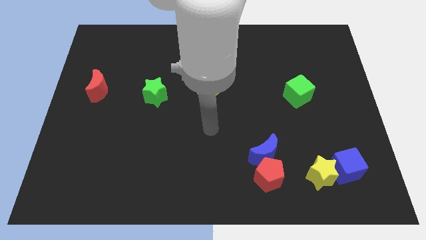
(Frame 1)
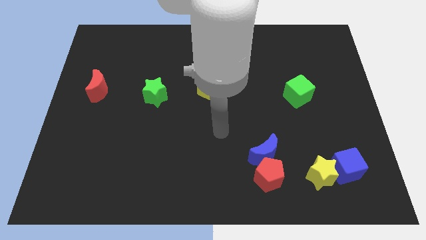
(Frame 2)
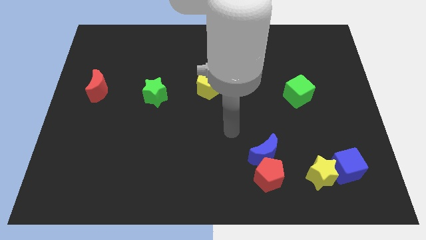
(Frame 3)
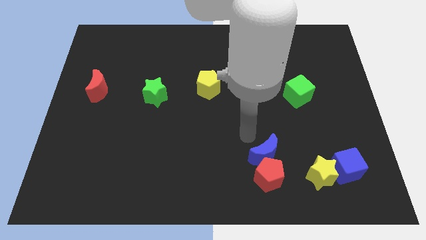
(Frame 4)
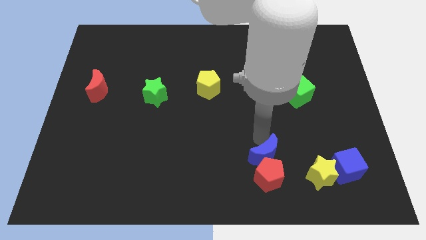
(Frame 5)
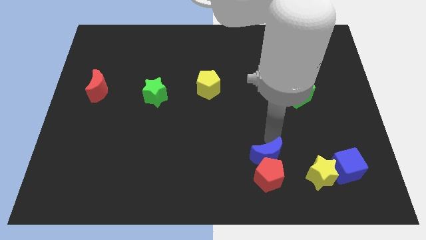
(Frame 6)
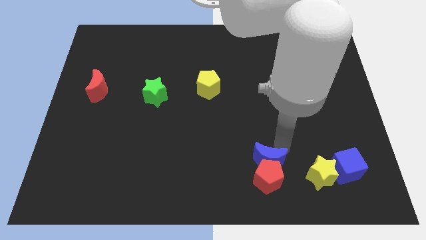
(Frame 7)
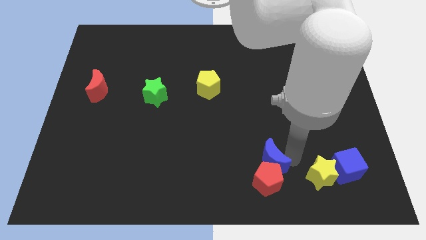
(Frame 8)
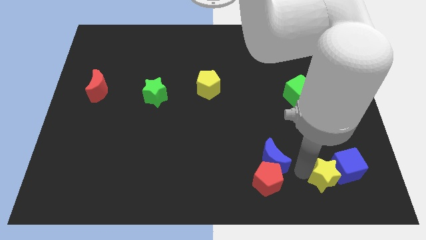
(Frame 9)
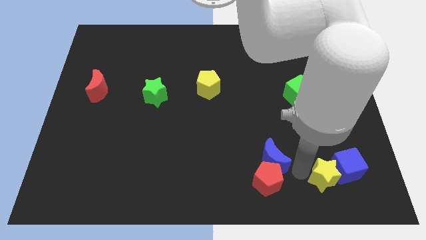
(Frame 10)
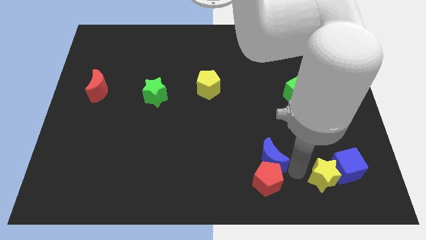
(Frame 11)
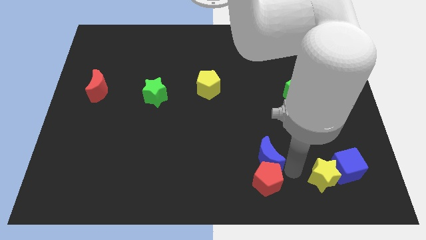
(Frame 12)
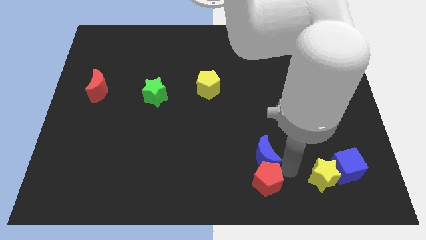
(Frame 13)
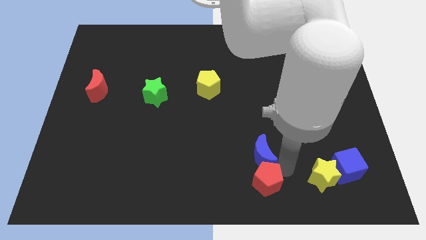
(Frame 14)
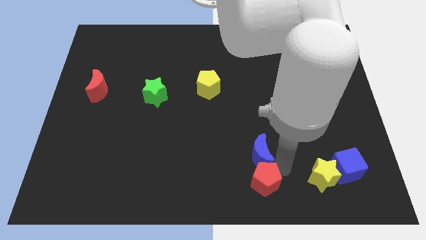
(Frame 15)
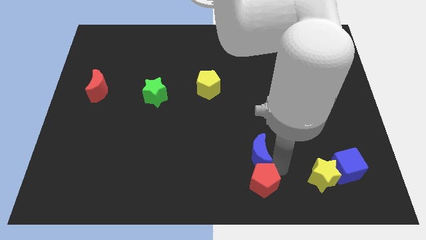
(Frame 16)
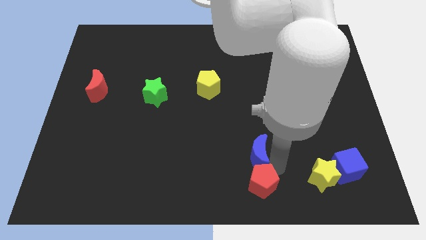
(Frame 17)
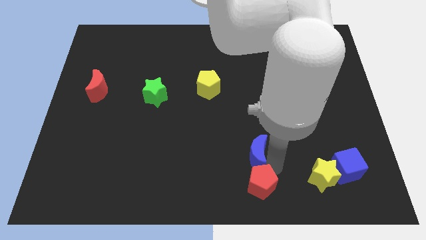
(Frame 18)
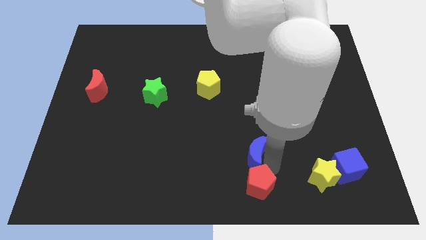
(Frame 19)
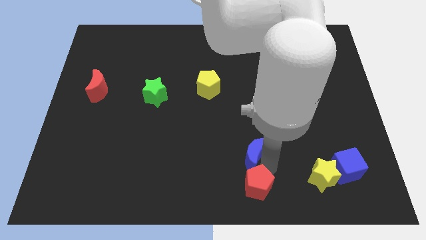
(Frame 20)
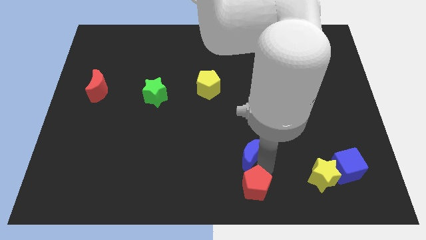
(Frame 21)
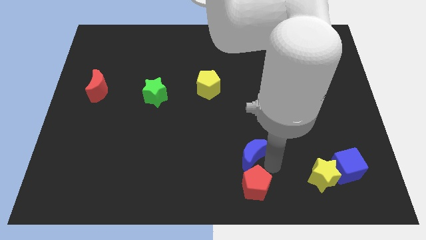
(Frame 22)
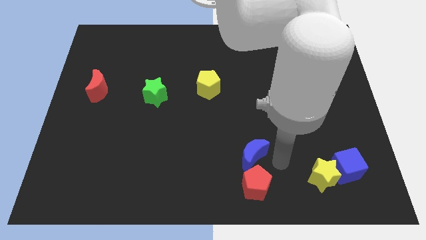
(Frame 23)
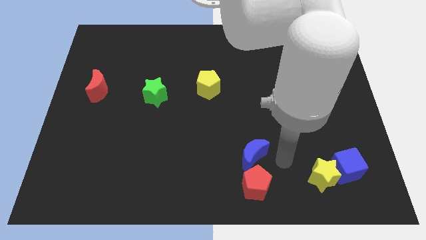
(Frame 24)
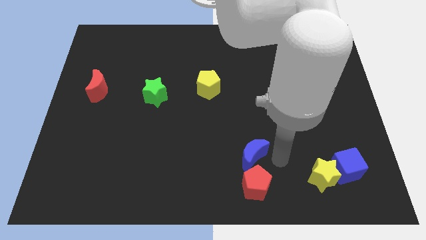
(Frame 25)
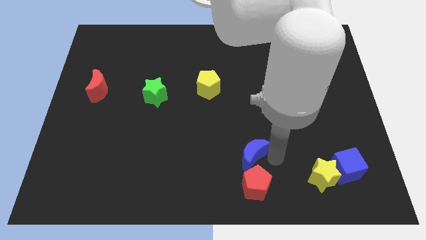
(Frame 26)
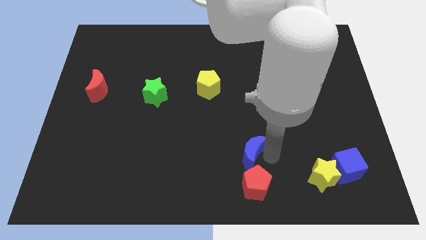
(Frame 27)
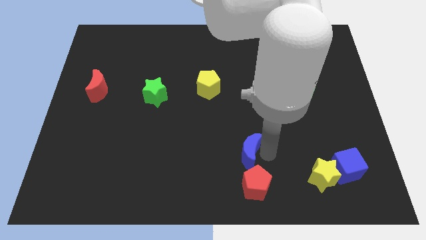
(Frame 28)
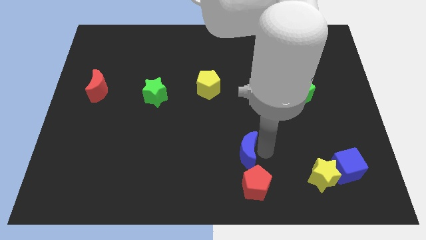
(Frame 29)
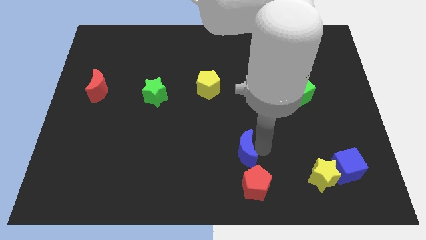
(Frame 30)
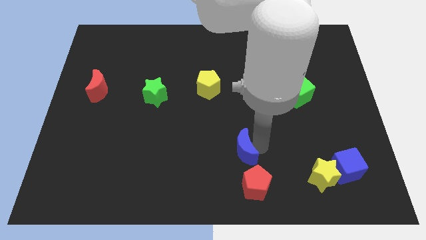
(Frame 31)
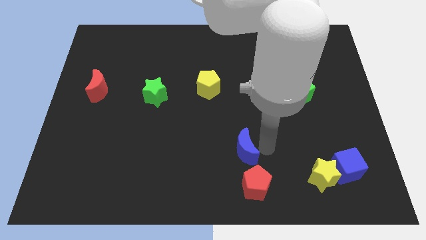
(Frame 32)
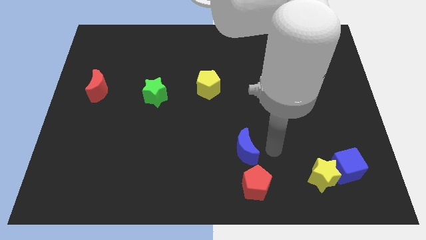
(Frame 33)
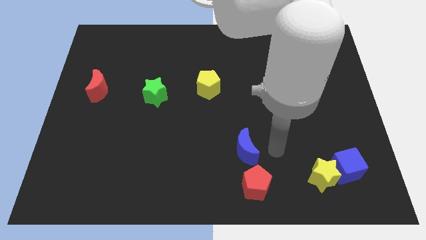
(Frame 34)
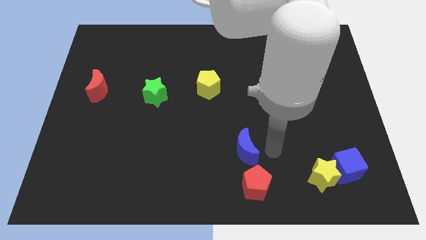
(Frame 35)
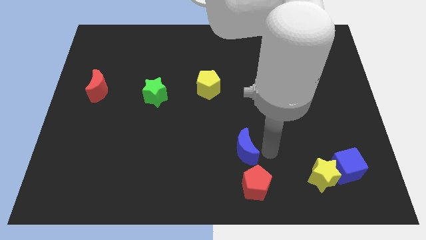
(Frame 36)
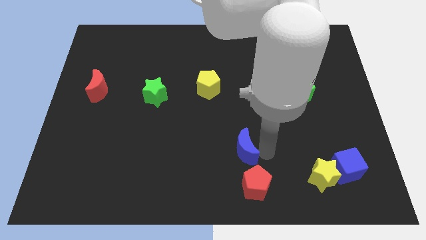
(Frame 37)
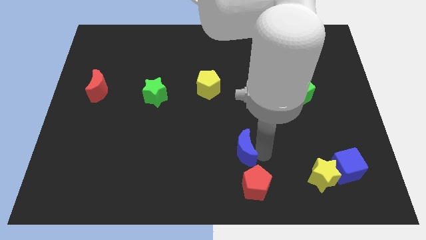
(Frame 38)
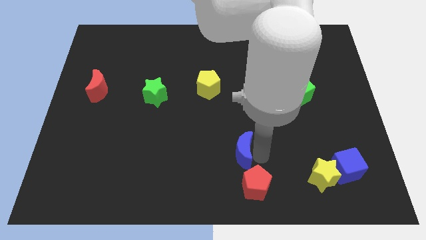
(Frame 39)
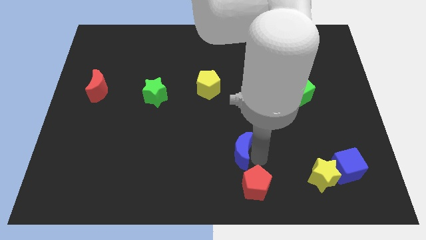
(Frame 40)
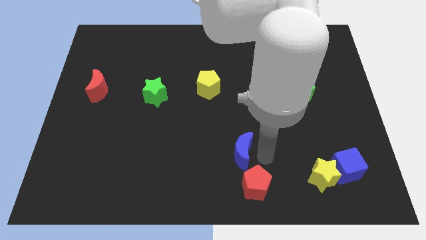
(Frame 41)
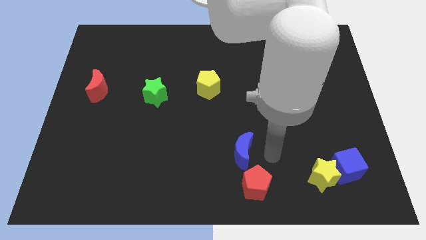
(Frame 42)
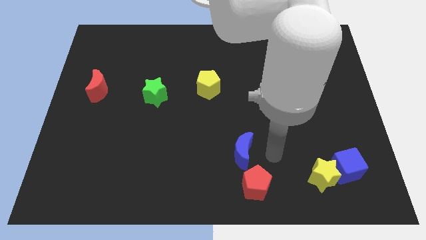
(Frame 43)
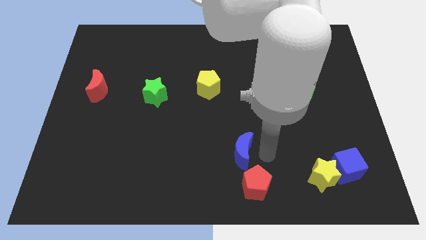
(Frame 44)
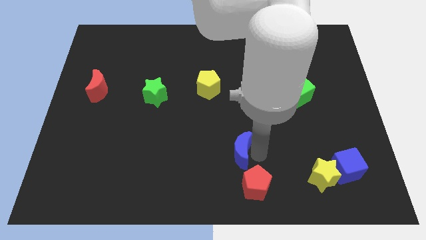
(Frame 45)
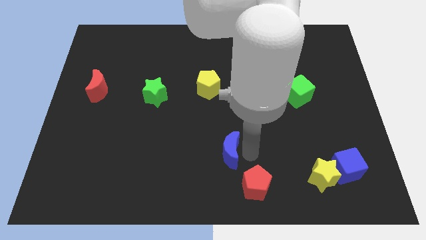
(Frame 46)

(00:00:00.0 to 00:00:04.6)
slightly push the blue moon left

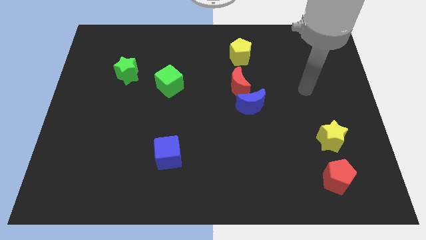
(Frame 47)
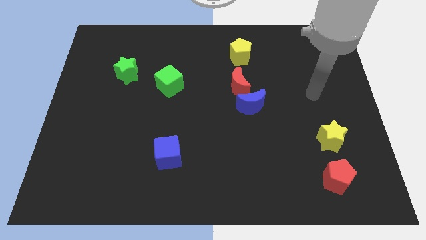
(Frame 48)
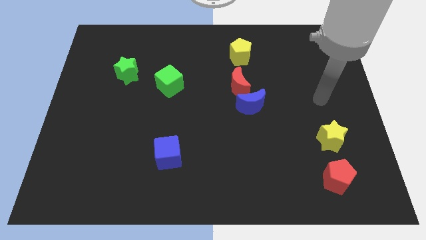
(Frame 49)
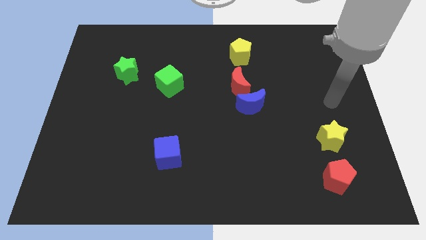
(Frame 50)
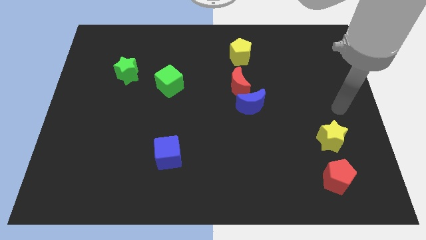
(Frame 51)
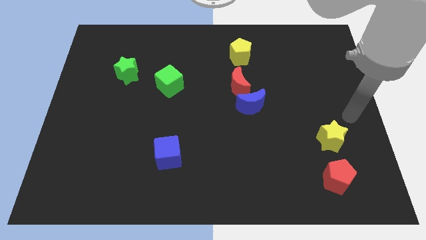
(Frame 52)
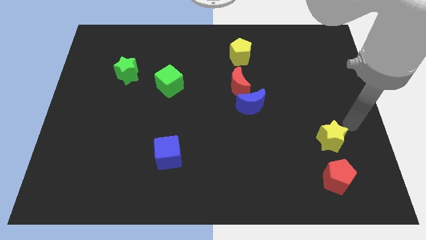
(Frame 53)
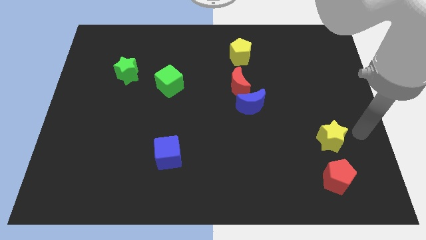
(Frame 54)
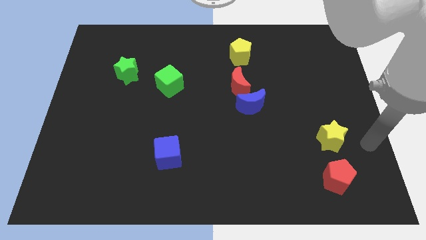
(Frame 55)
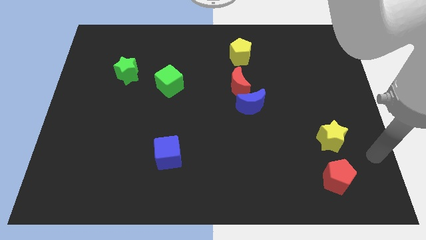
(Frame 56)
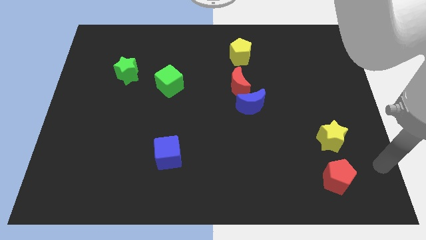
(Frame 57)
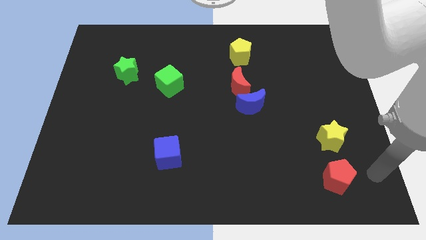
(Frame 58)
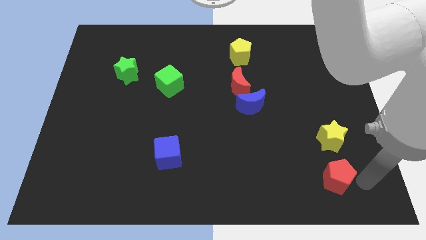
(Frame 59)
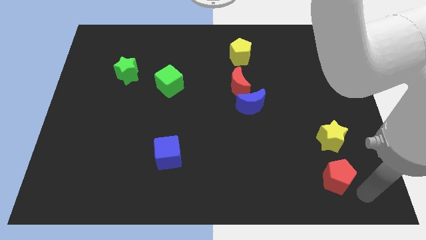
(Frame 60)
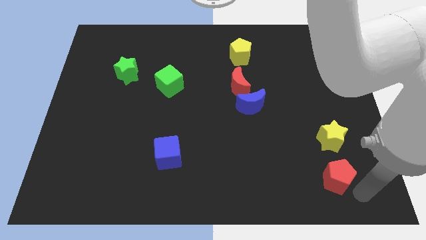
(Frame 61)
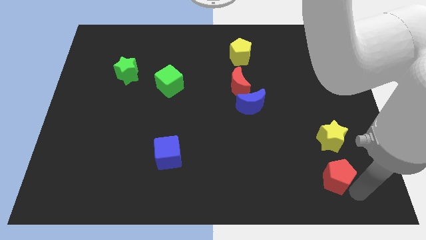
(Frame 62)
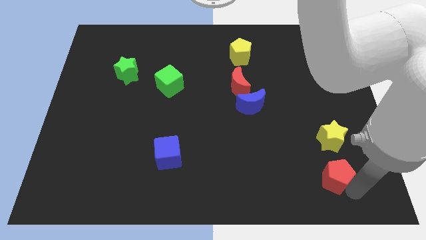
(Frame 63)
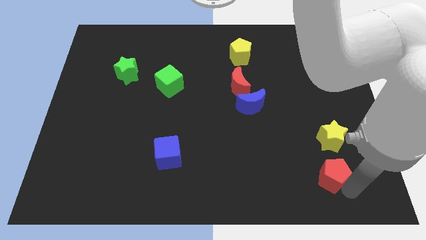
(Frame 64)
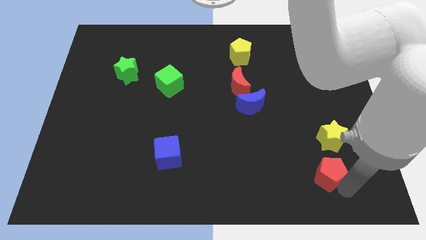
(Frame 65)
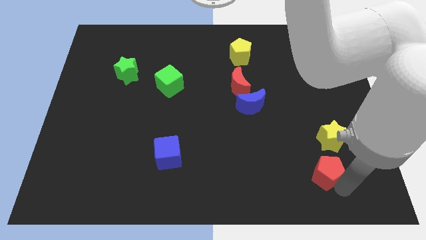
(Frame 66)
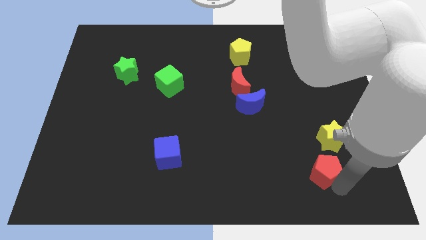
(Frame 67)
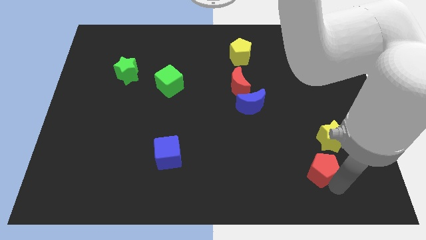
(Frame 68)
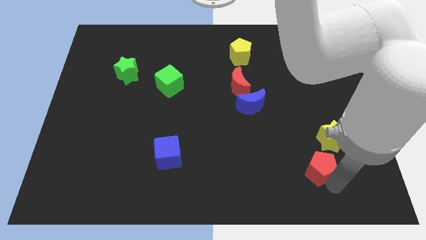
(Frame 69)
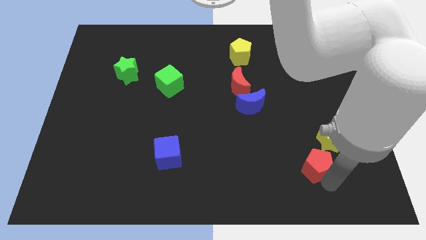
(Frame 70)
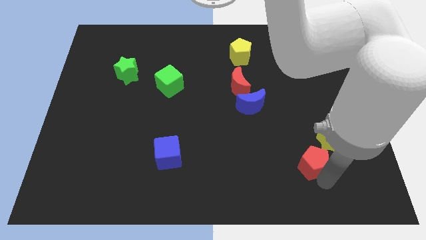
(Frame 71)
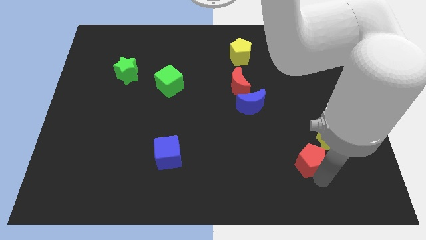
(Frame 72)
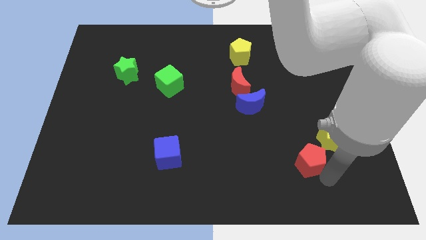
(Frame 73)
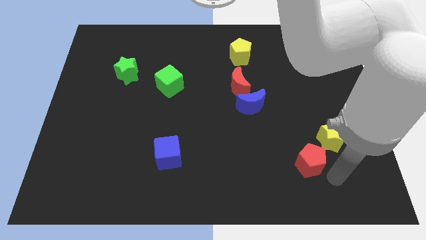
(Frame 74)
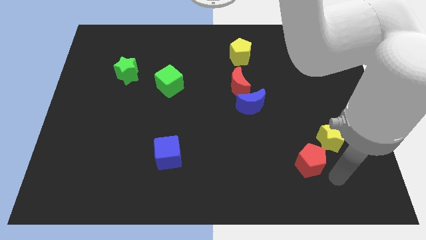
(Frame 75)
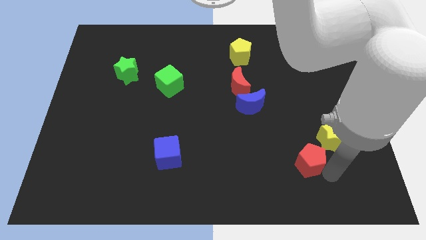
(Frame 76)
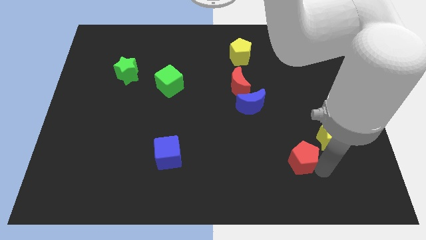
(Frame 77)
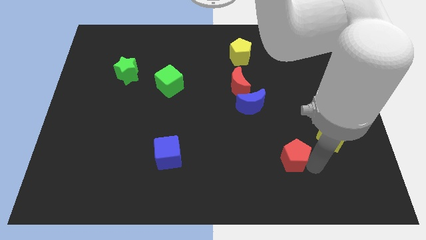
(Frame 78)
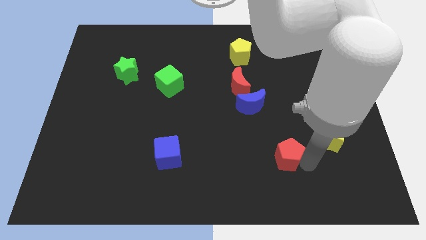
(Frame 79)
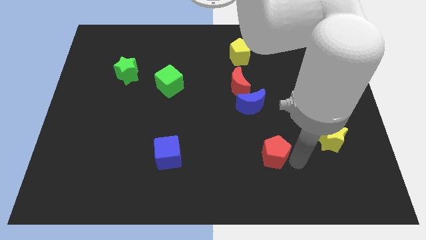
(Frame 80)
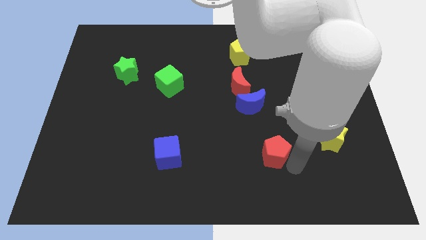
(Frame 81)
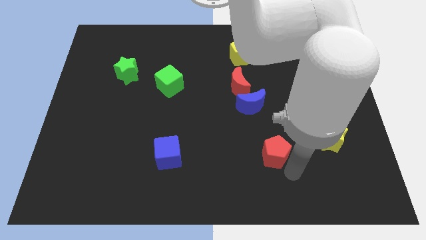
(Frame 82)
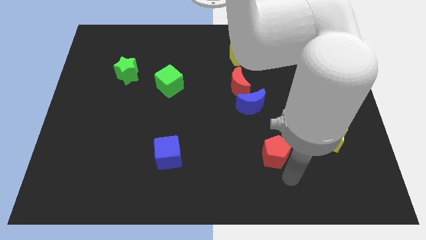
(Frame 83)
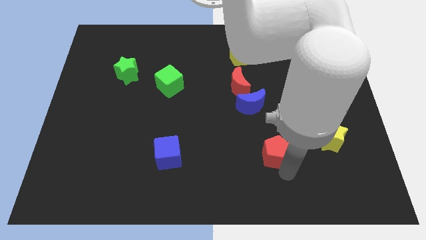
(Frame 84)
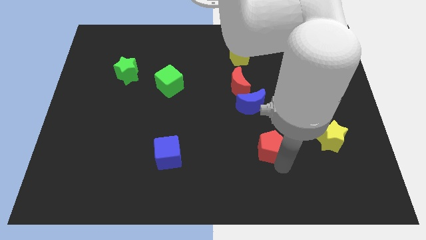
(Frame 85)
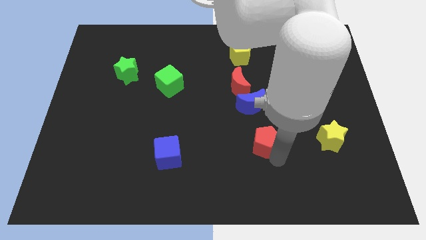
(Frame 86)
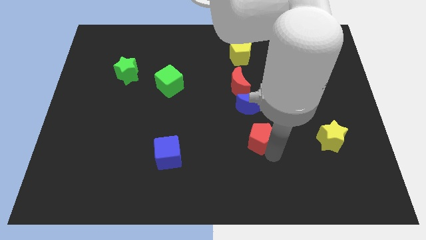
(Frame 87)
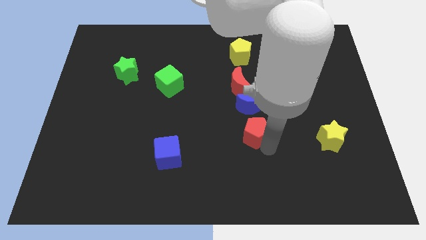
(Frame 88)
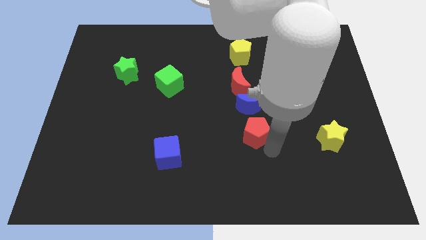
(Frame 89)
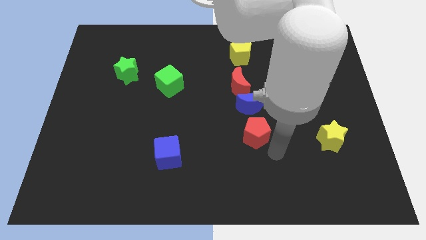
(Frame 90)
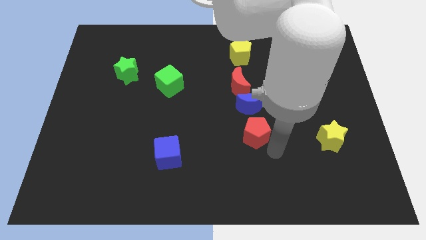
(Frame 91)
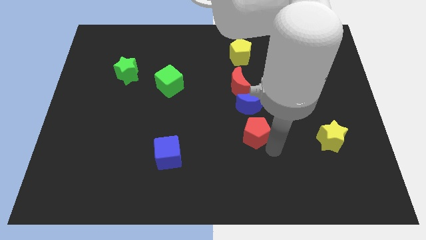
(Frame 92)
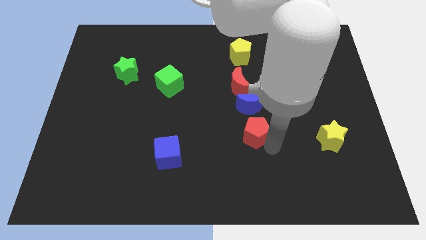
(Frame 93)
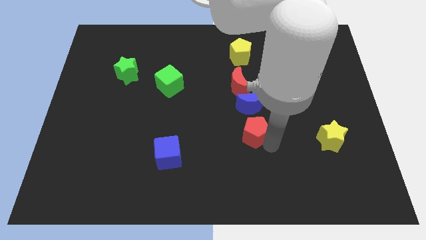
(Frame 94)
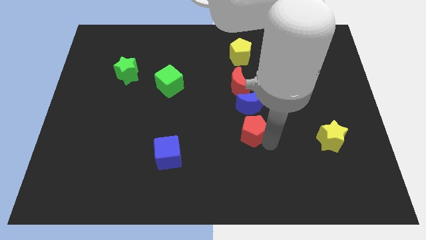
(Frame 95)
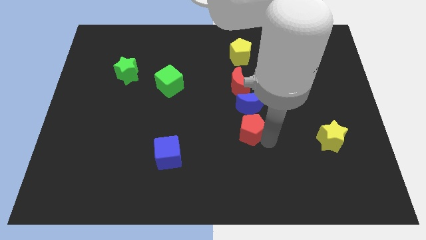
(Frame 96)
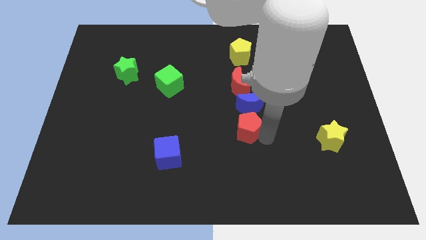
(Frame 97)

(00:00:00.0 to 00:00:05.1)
move the red pentagon diagonally upwards and left
